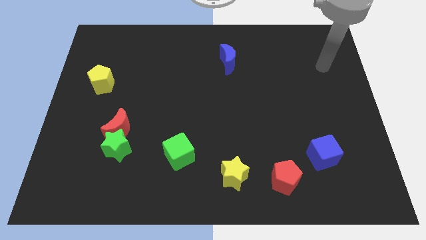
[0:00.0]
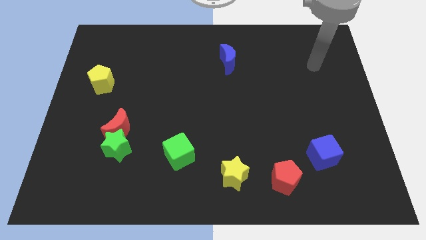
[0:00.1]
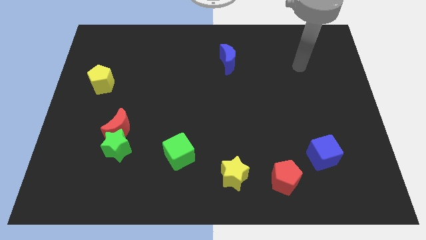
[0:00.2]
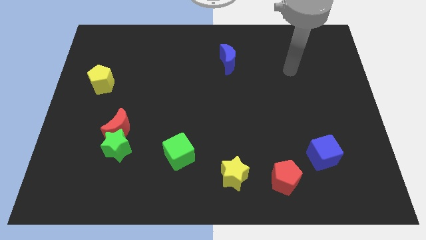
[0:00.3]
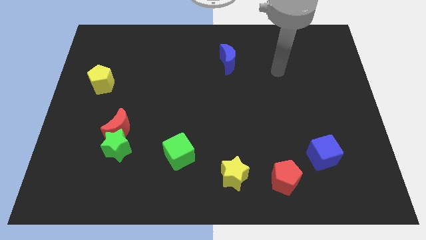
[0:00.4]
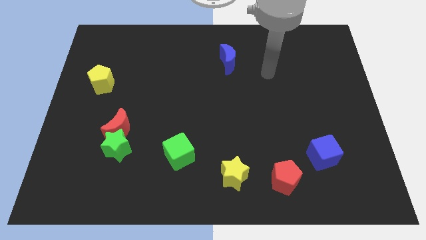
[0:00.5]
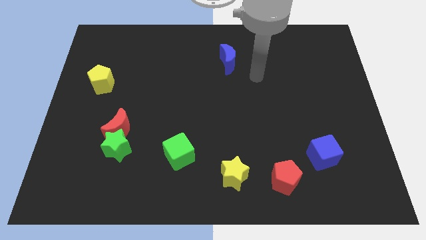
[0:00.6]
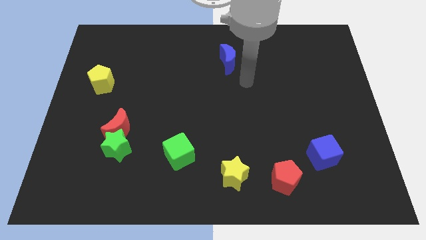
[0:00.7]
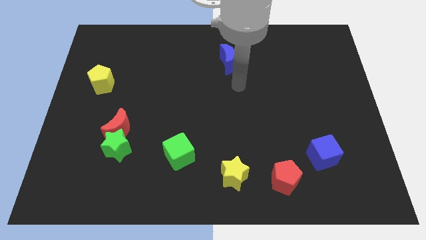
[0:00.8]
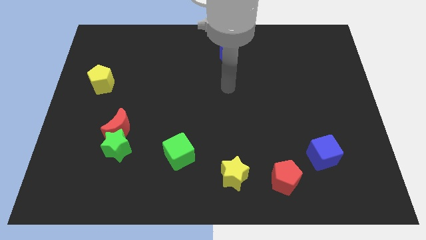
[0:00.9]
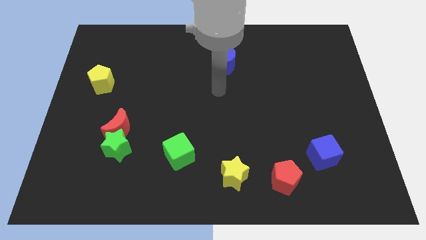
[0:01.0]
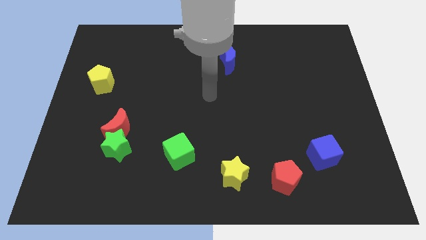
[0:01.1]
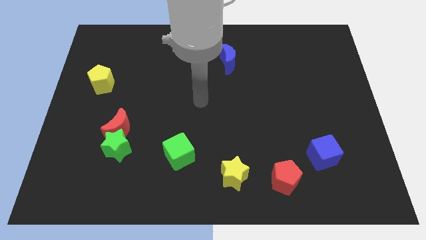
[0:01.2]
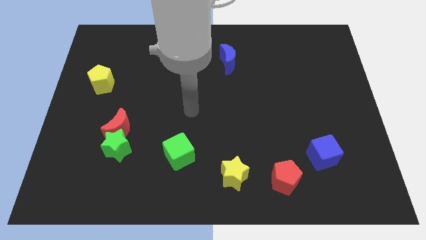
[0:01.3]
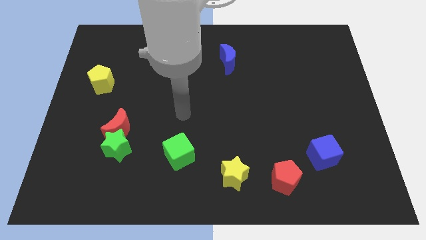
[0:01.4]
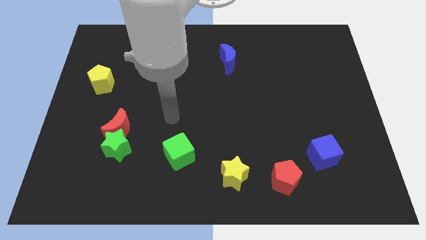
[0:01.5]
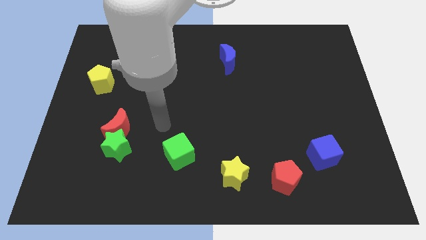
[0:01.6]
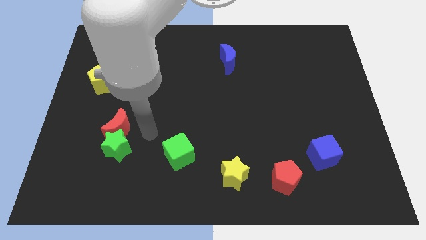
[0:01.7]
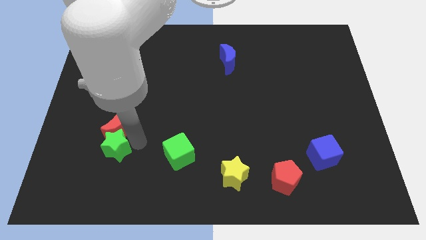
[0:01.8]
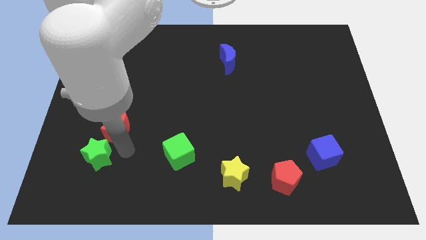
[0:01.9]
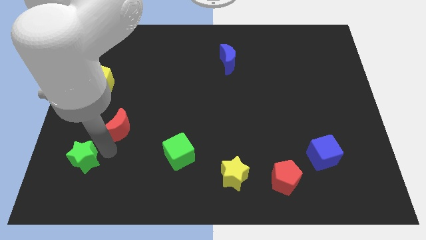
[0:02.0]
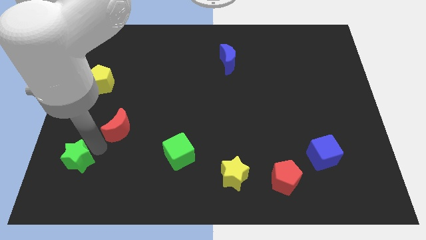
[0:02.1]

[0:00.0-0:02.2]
pull the red moon apart from the green star

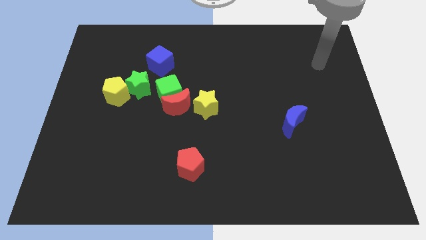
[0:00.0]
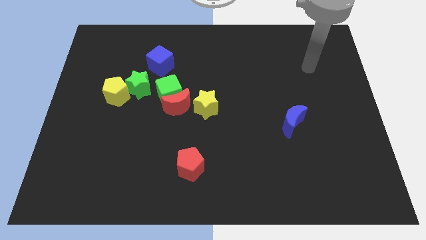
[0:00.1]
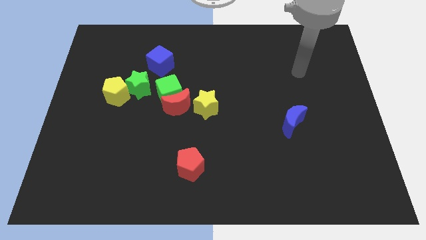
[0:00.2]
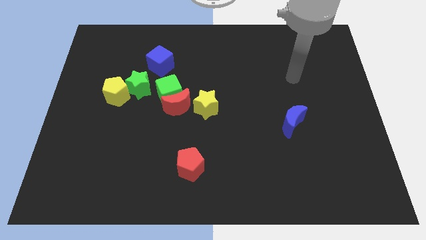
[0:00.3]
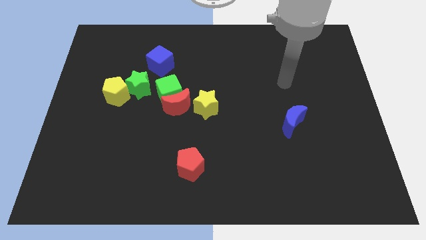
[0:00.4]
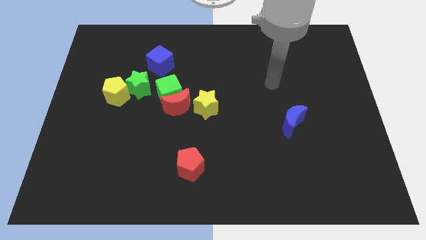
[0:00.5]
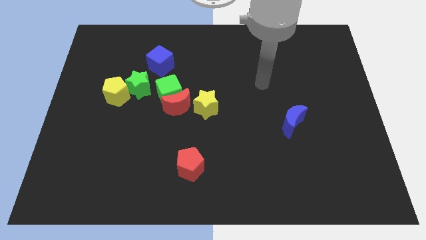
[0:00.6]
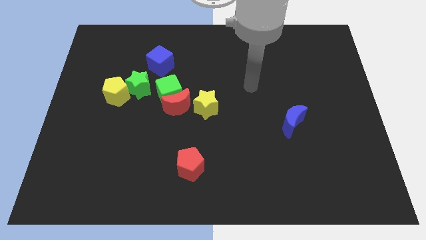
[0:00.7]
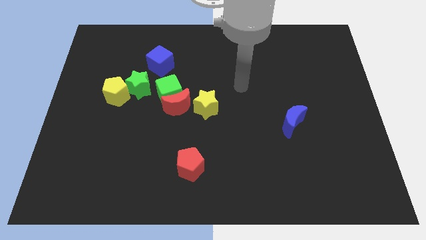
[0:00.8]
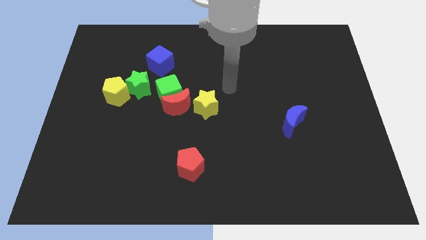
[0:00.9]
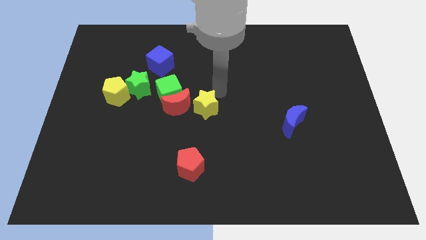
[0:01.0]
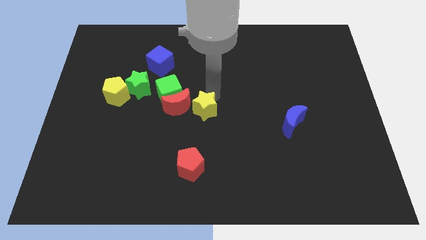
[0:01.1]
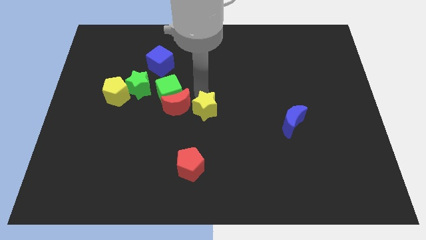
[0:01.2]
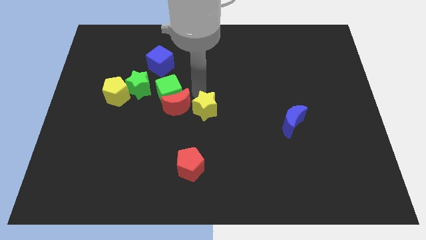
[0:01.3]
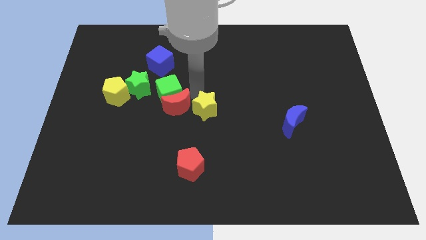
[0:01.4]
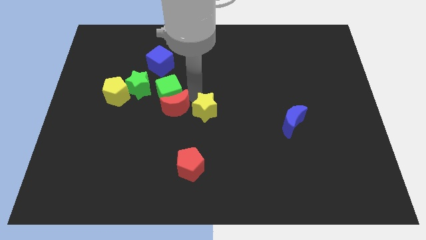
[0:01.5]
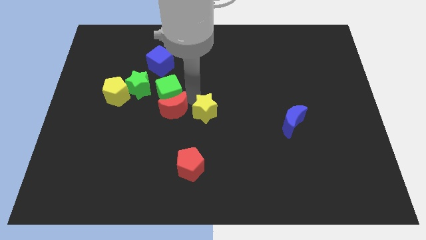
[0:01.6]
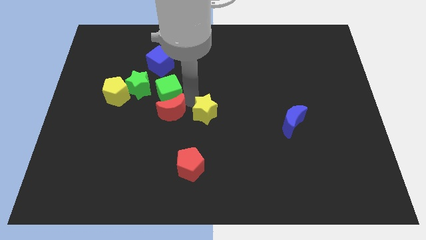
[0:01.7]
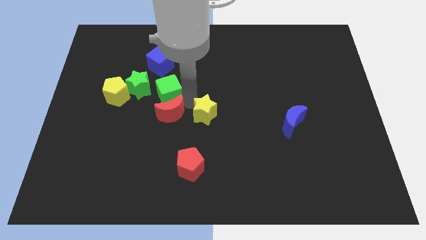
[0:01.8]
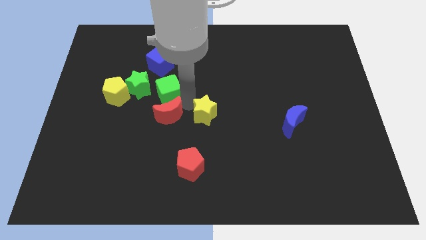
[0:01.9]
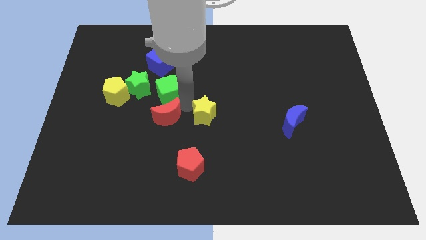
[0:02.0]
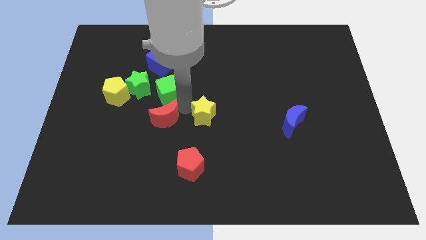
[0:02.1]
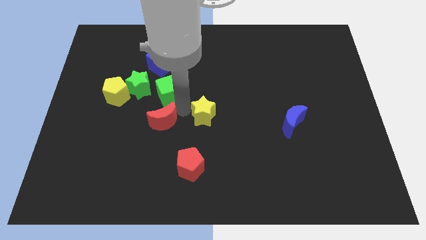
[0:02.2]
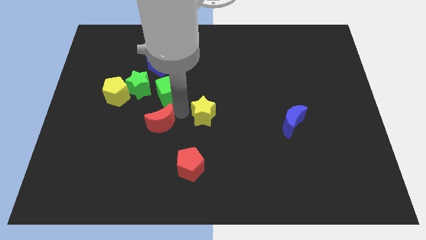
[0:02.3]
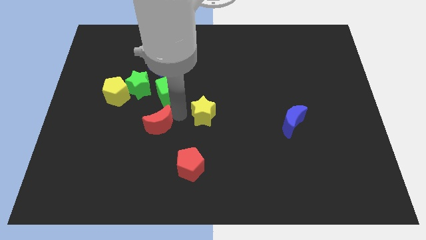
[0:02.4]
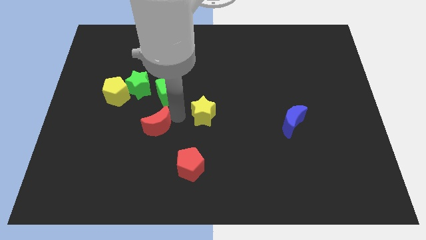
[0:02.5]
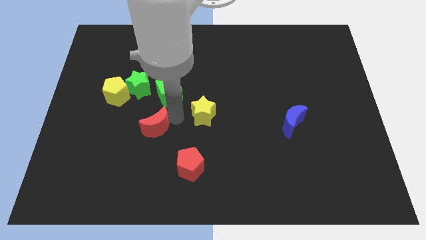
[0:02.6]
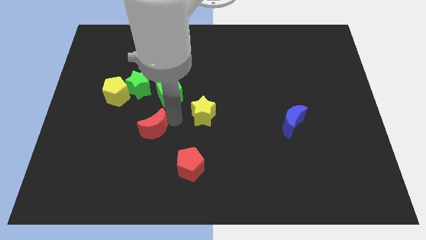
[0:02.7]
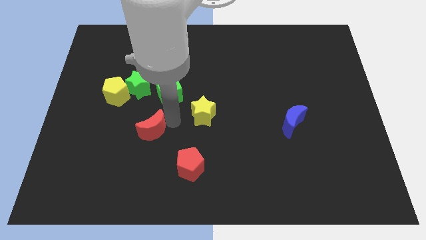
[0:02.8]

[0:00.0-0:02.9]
separate the red moon from the green cube and yellow star

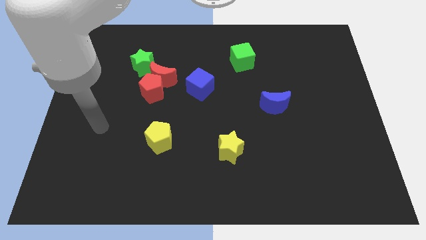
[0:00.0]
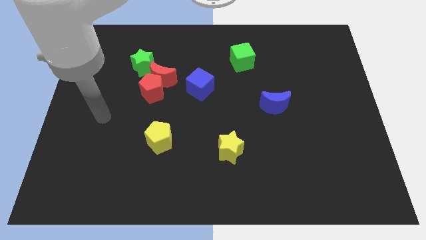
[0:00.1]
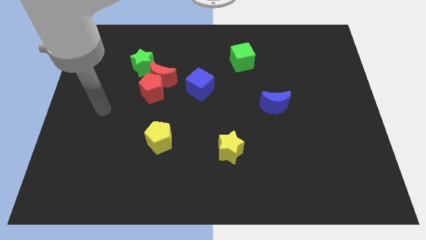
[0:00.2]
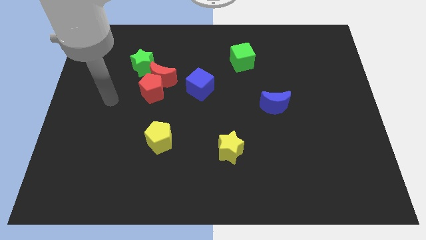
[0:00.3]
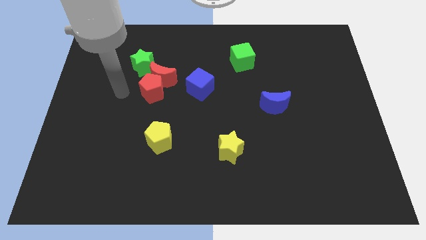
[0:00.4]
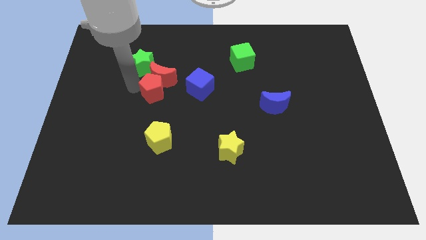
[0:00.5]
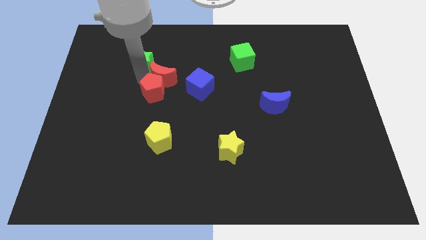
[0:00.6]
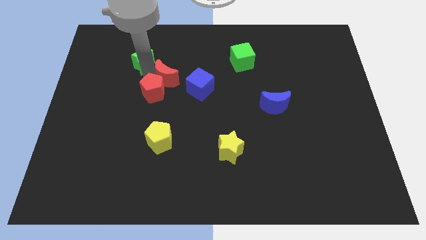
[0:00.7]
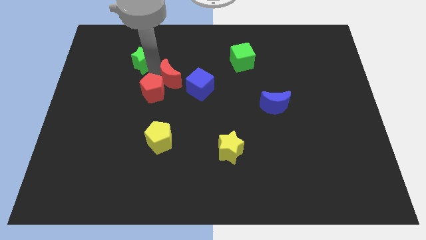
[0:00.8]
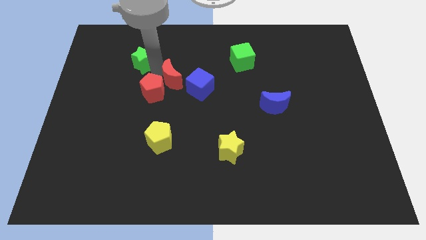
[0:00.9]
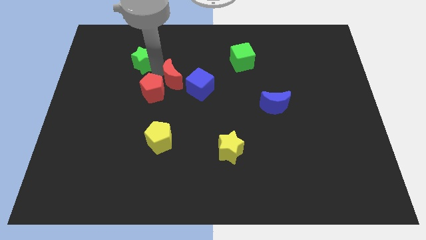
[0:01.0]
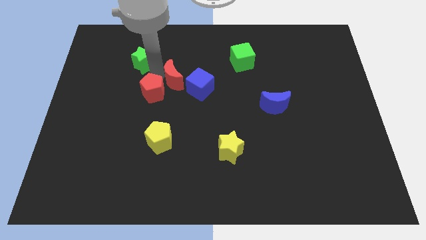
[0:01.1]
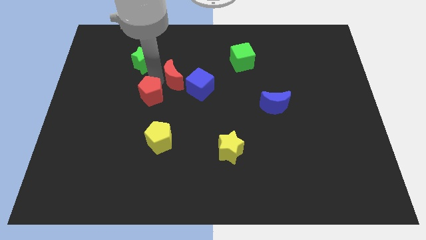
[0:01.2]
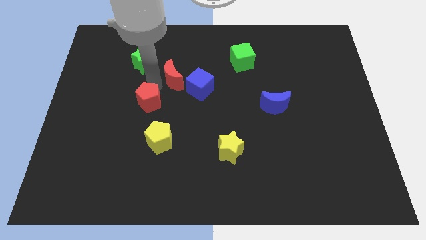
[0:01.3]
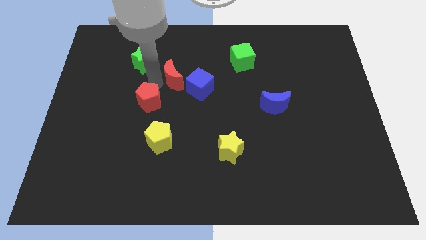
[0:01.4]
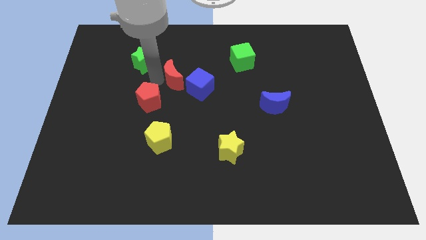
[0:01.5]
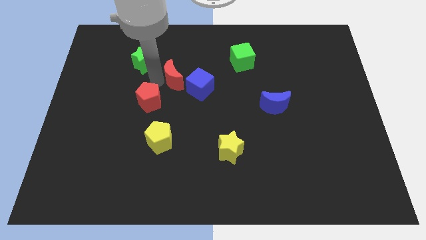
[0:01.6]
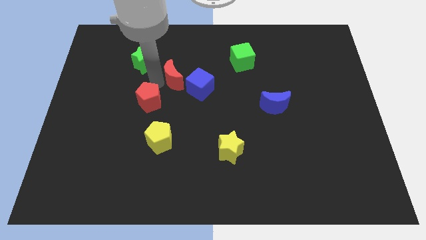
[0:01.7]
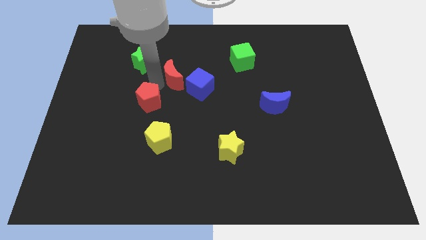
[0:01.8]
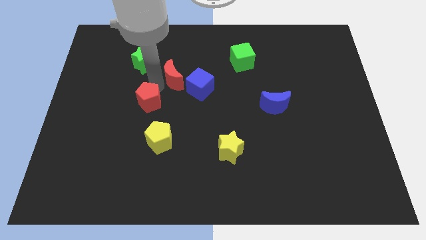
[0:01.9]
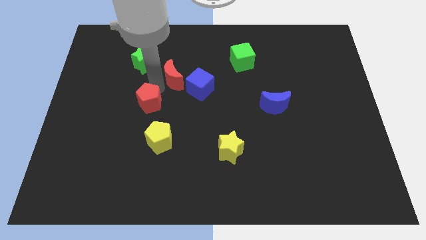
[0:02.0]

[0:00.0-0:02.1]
pull the red pentagon apart from the red moon and green star

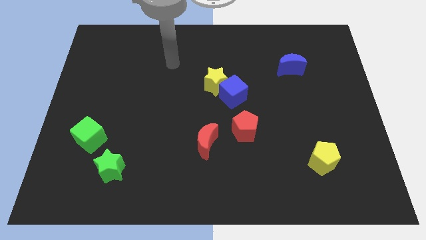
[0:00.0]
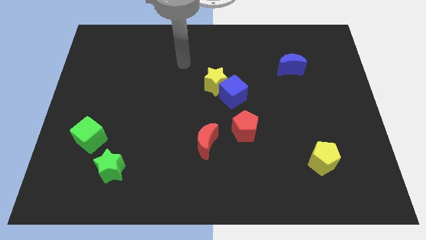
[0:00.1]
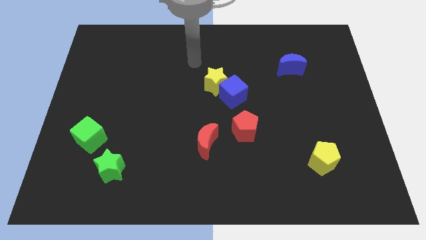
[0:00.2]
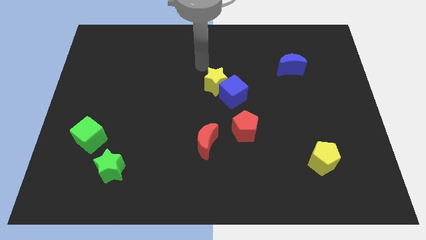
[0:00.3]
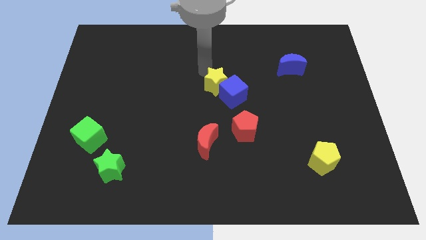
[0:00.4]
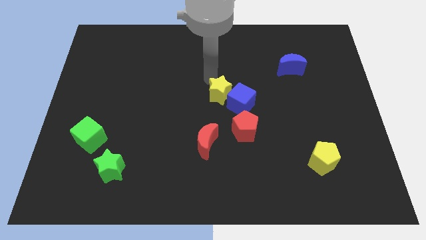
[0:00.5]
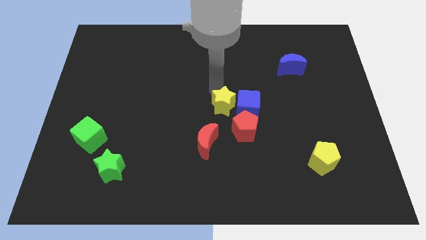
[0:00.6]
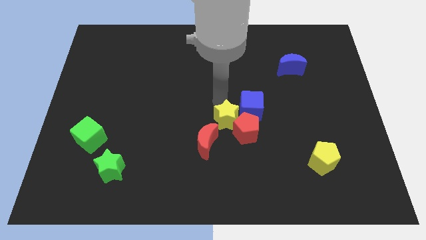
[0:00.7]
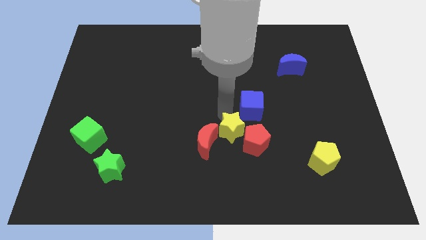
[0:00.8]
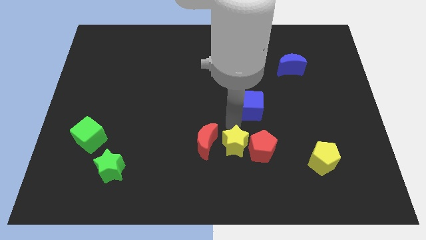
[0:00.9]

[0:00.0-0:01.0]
move the blue cube away from the yellow star

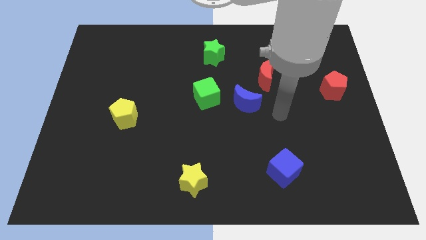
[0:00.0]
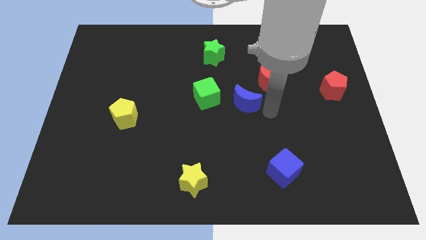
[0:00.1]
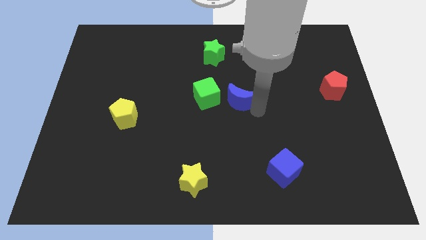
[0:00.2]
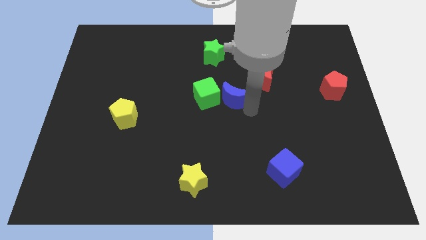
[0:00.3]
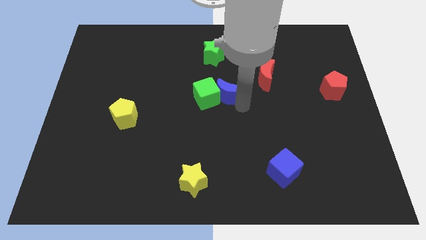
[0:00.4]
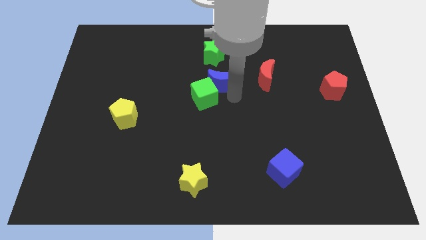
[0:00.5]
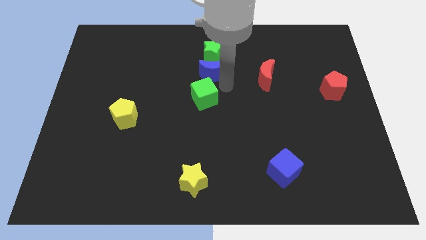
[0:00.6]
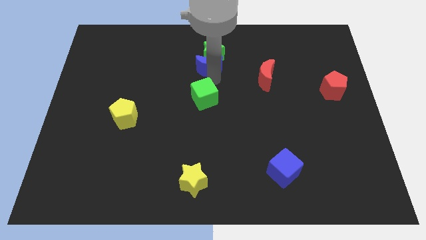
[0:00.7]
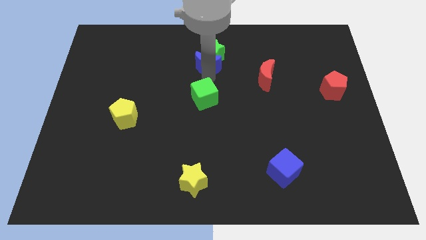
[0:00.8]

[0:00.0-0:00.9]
pull the green cube apart from the blue moon

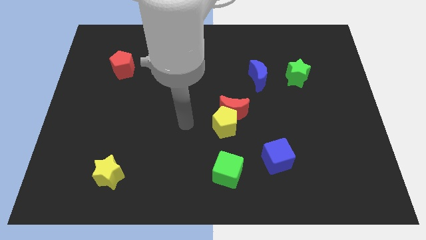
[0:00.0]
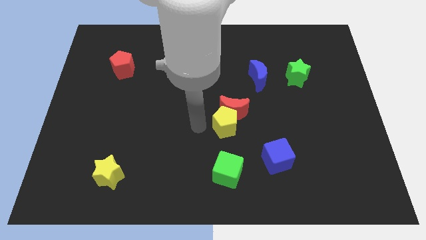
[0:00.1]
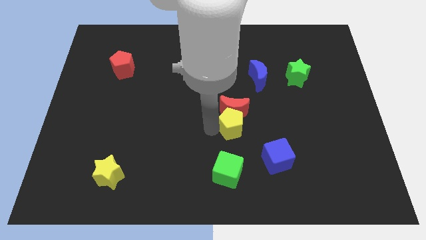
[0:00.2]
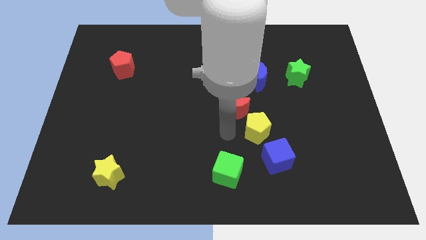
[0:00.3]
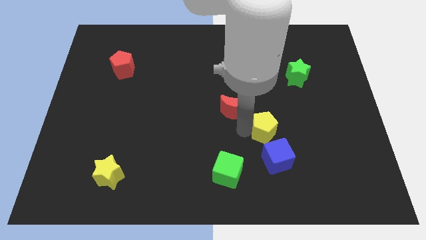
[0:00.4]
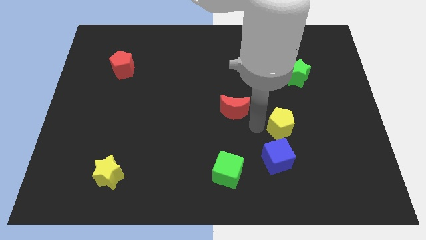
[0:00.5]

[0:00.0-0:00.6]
move the red moon away from the yellow pentagon
